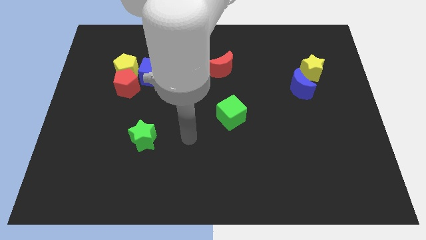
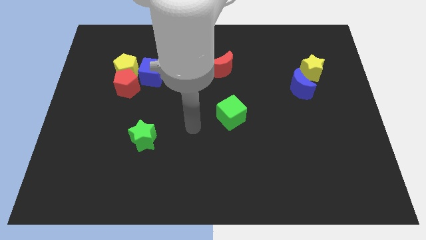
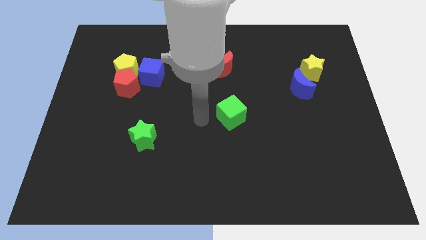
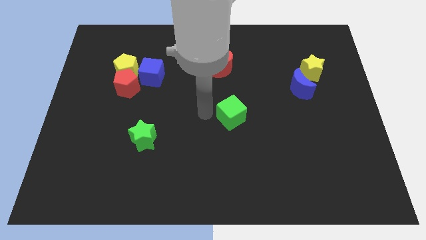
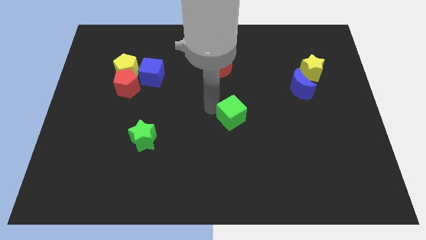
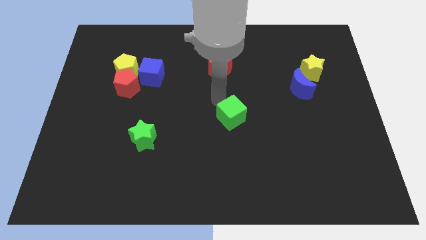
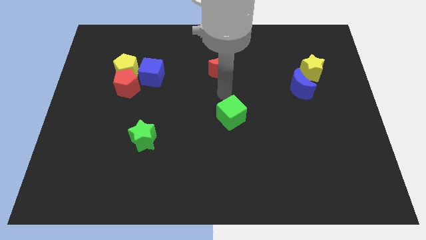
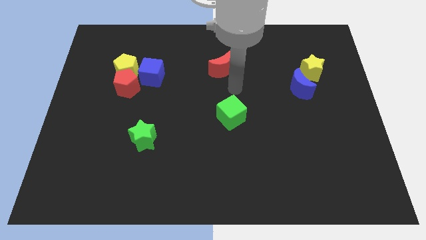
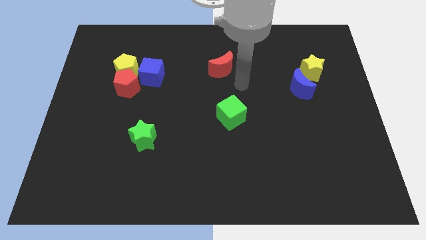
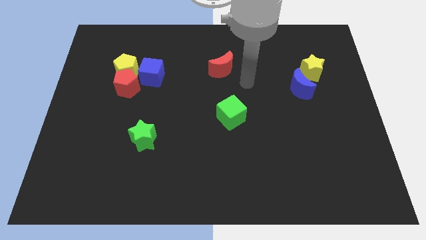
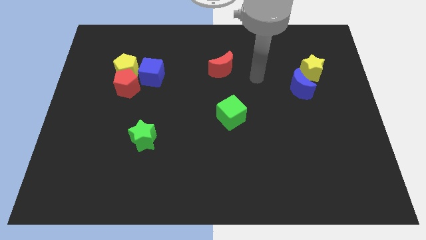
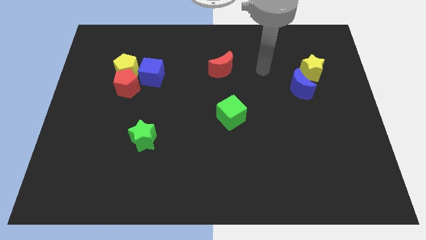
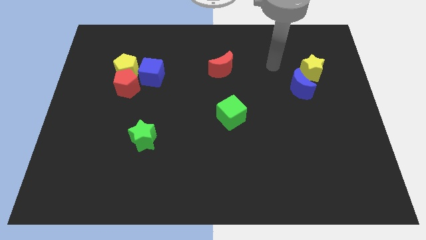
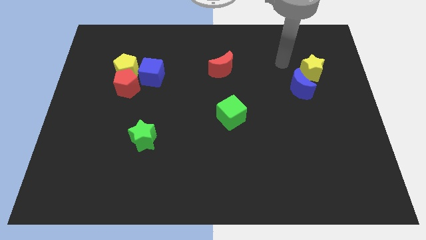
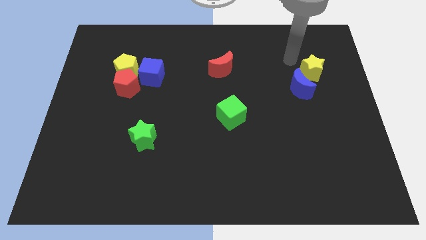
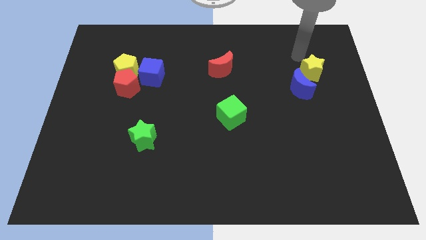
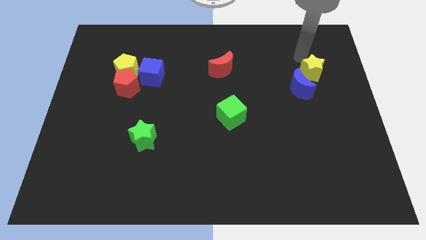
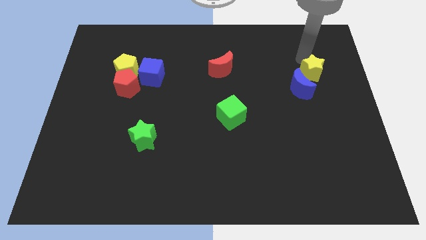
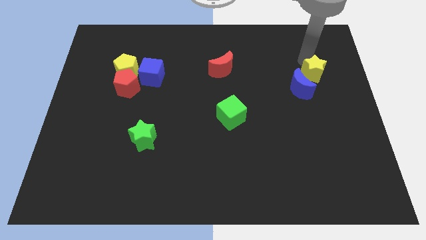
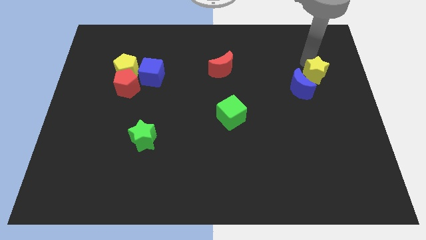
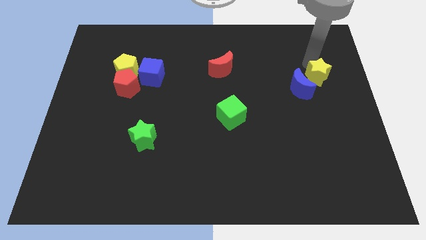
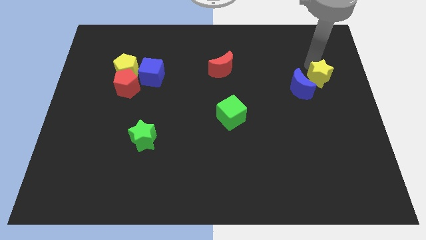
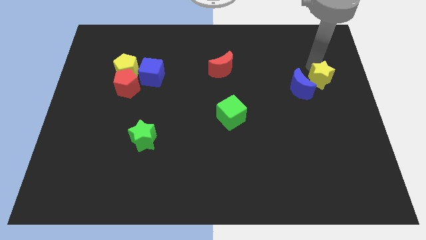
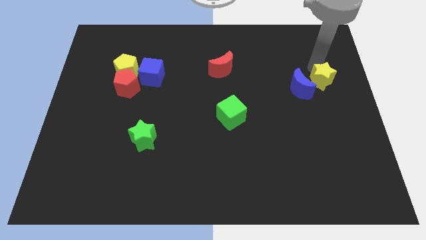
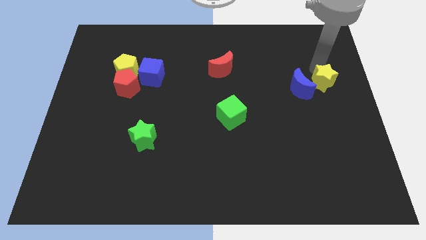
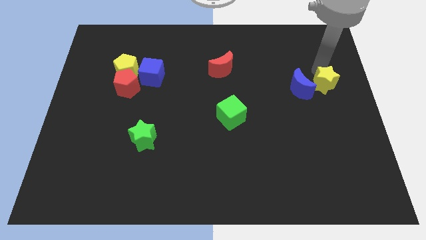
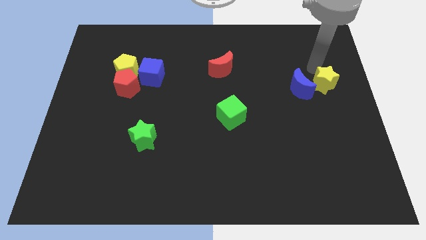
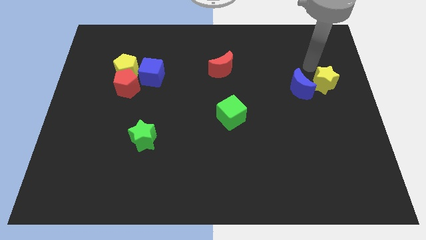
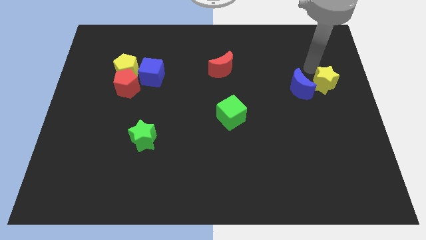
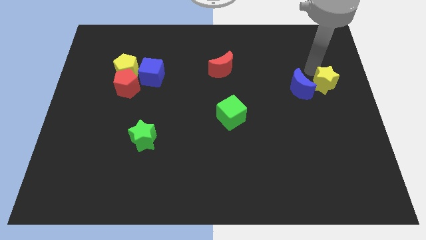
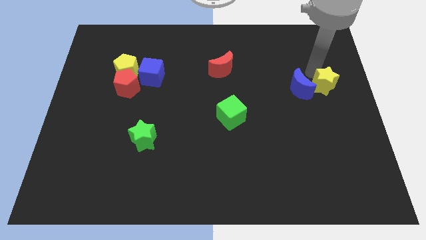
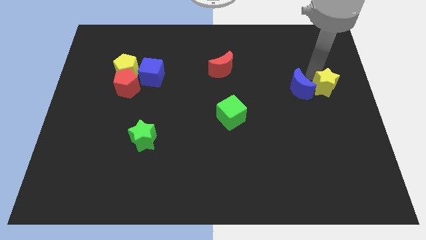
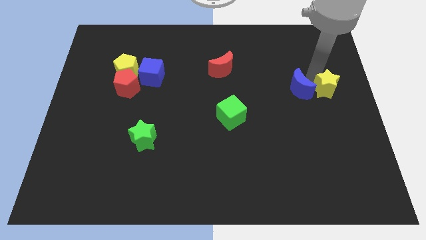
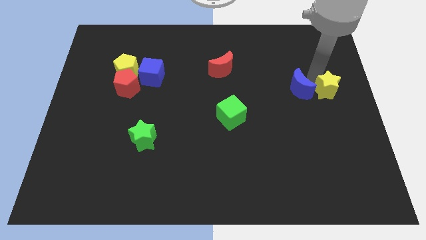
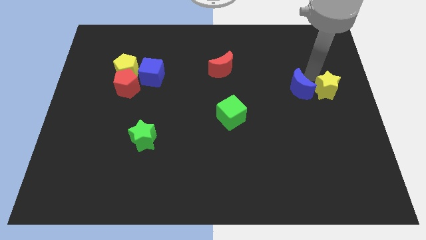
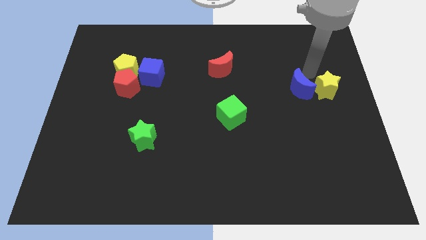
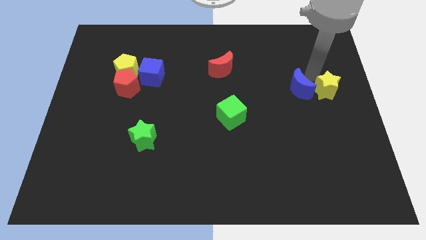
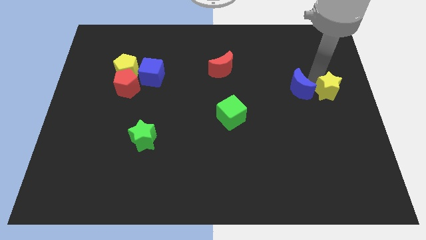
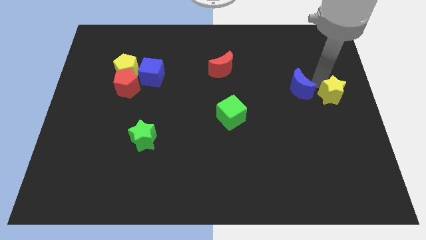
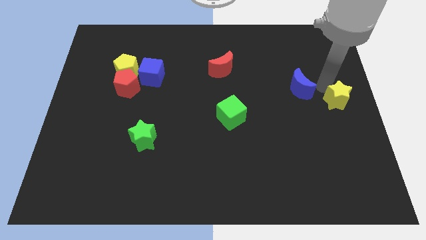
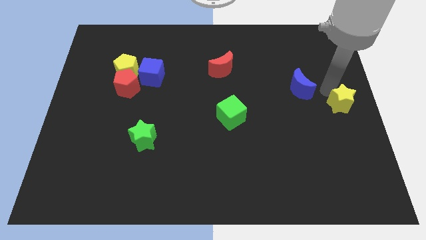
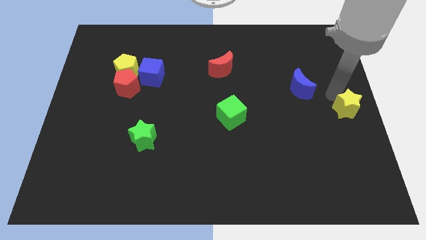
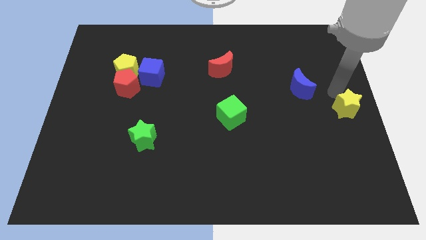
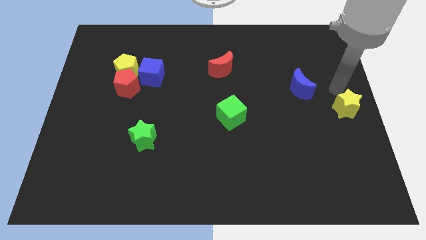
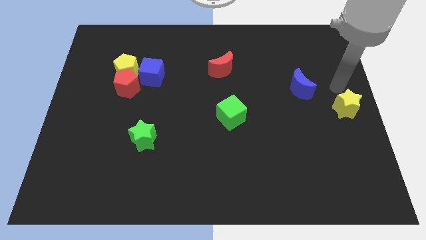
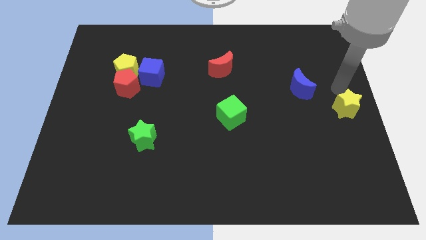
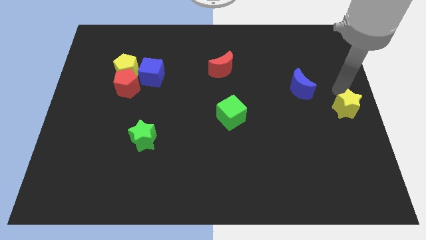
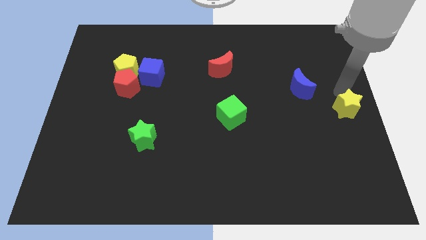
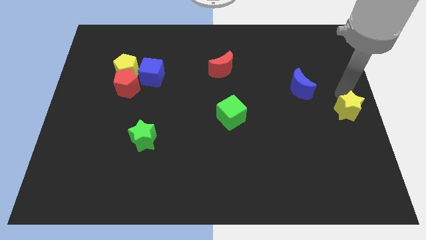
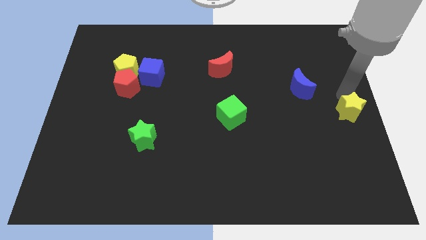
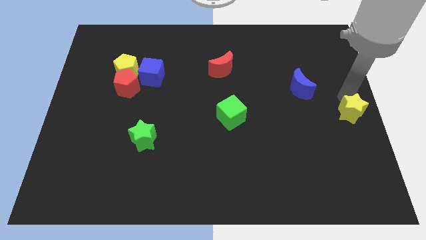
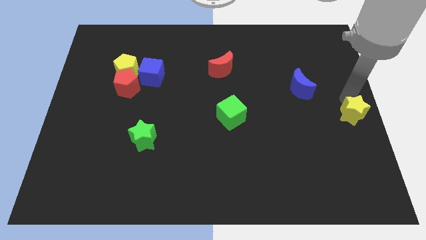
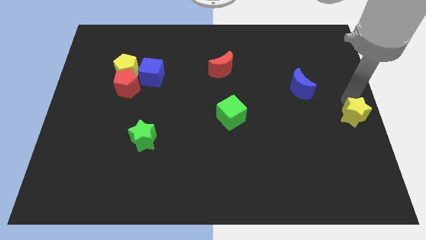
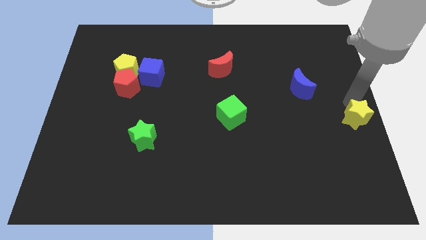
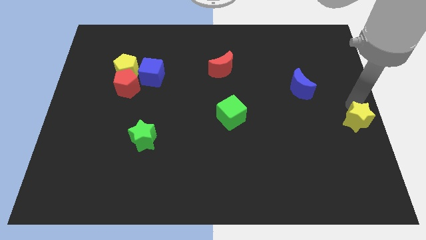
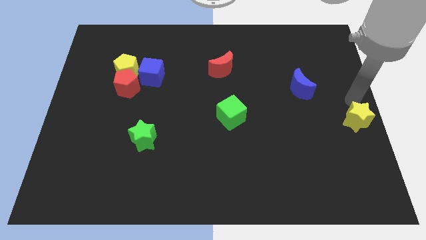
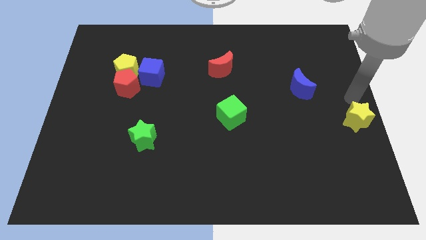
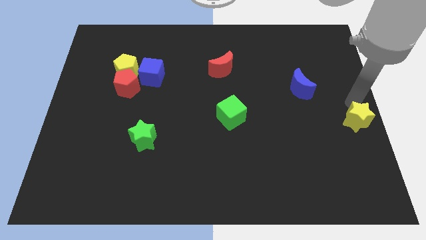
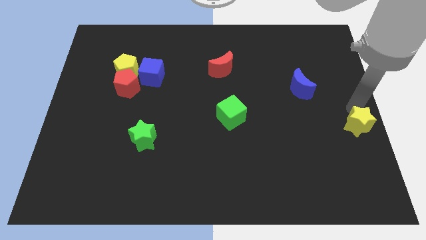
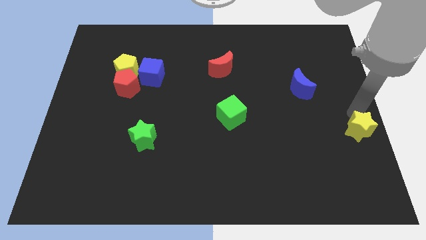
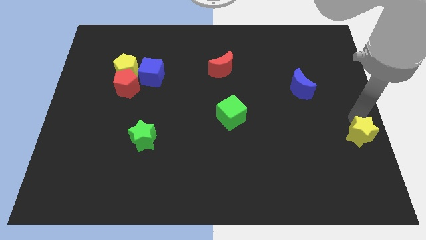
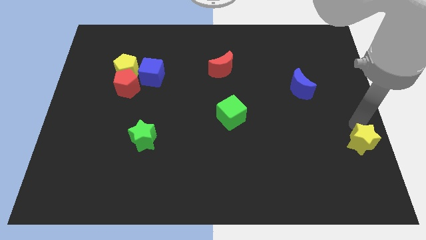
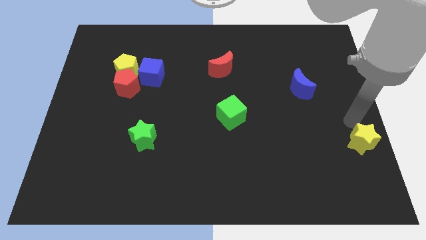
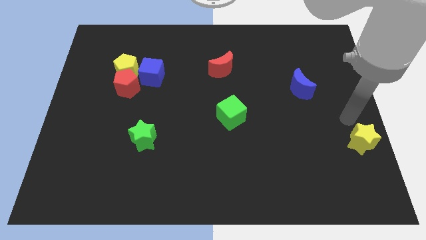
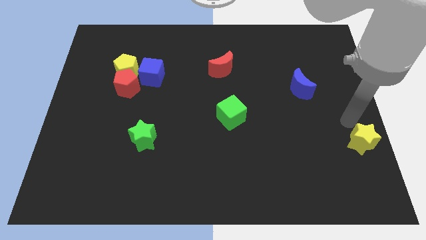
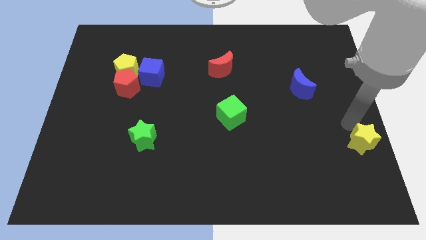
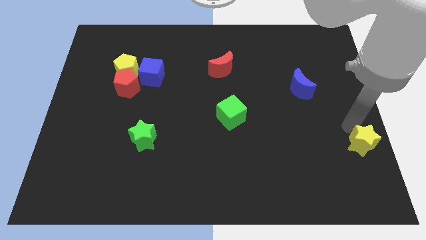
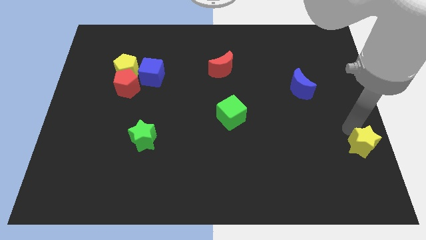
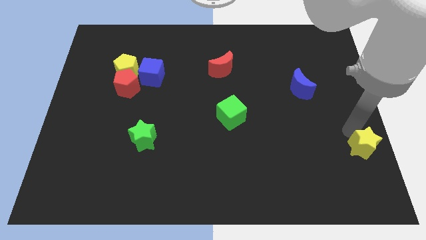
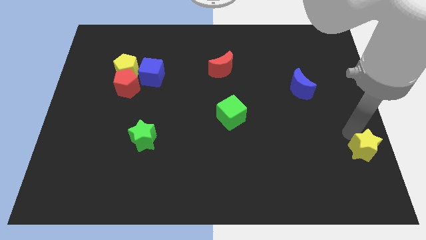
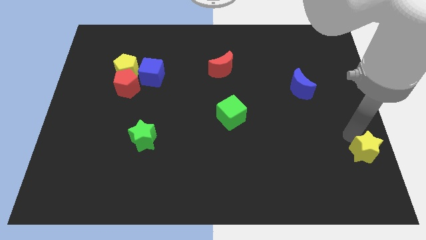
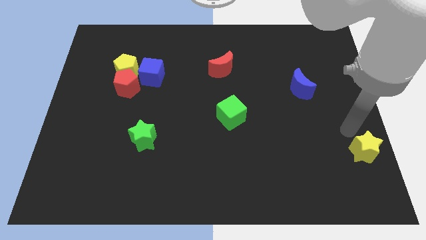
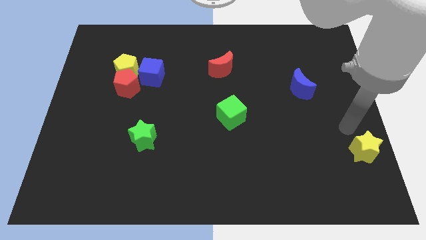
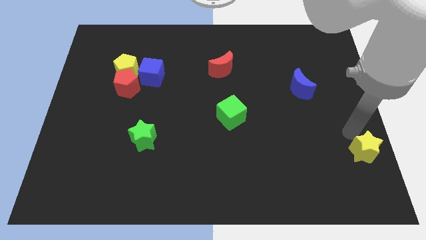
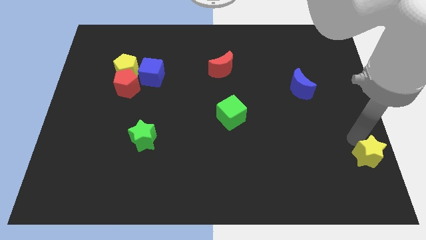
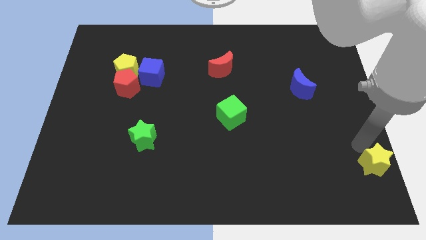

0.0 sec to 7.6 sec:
push the yellow star to the bottom right
